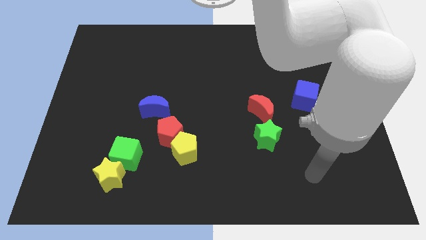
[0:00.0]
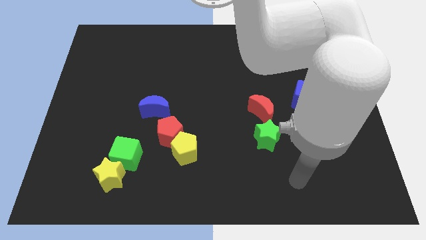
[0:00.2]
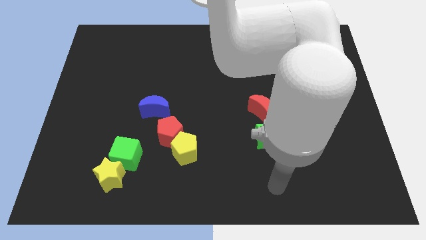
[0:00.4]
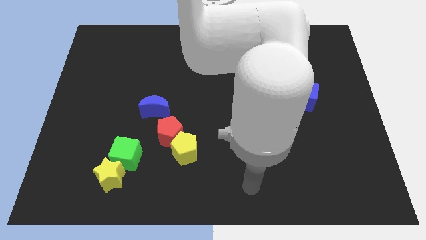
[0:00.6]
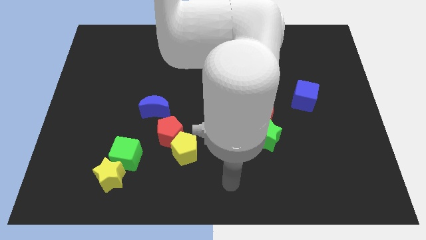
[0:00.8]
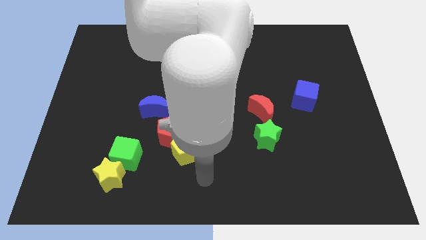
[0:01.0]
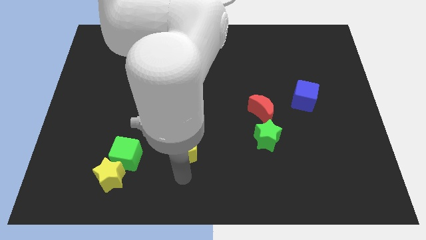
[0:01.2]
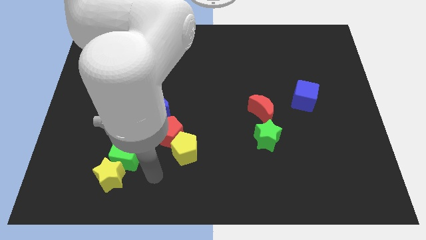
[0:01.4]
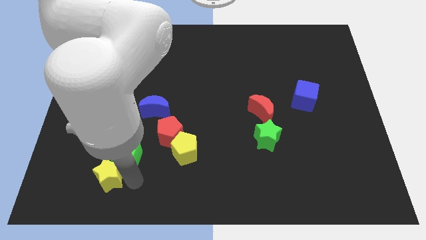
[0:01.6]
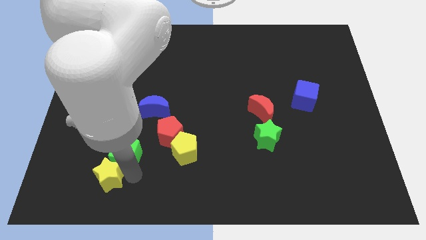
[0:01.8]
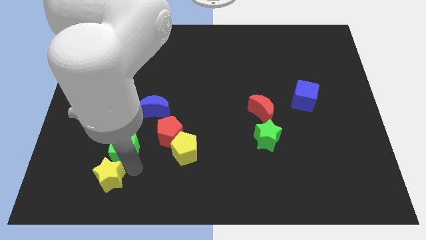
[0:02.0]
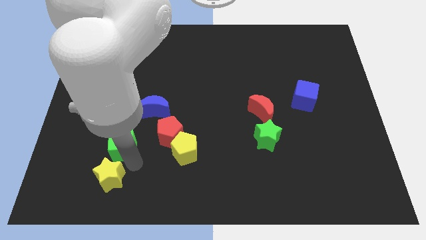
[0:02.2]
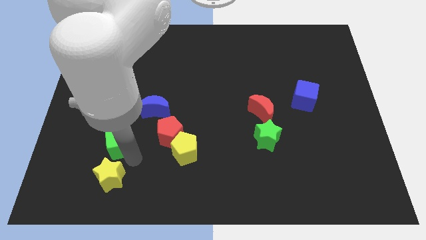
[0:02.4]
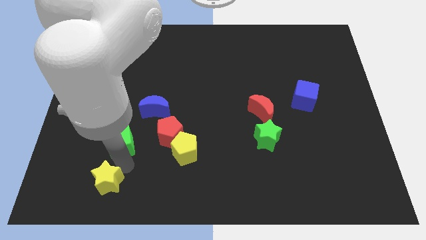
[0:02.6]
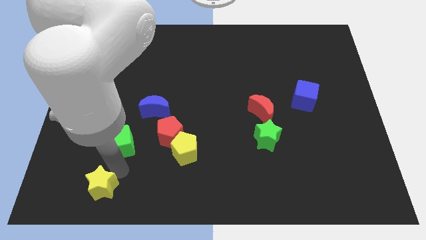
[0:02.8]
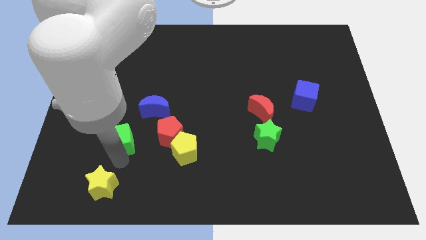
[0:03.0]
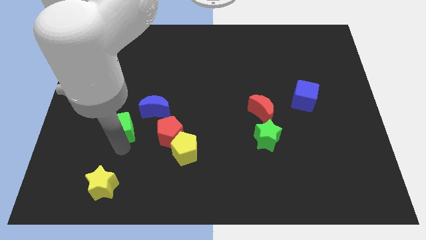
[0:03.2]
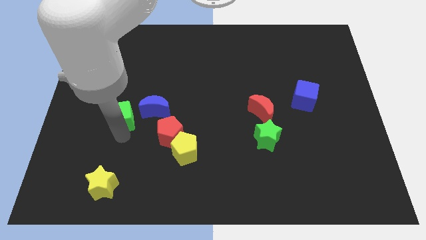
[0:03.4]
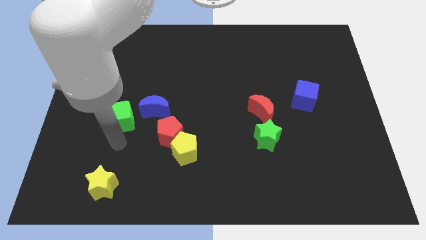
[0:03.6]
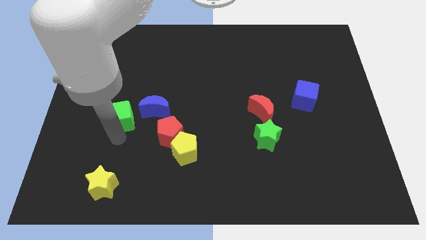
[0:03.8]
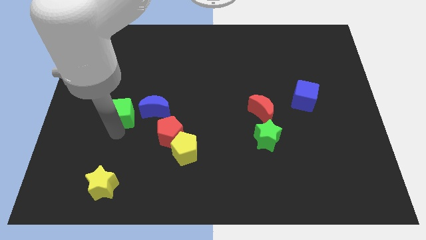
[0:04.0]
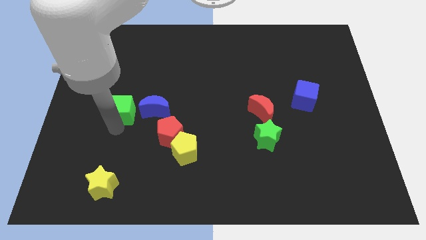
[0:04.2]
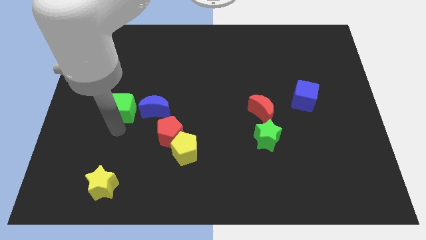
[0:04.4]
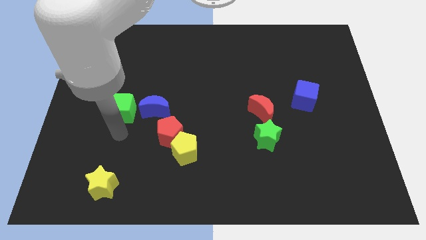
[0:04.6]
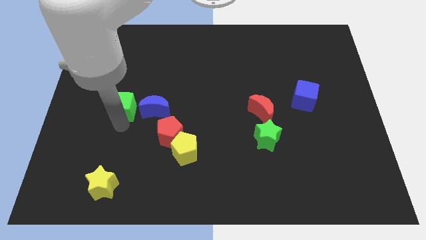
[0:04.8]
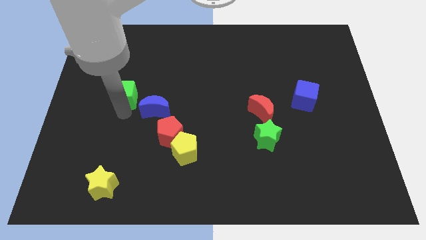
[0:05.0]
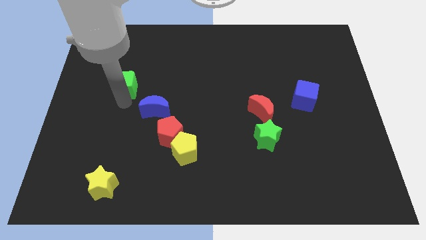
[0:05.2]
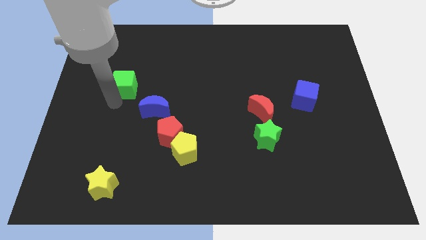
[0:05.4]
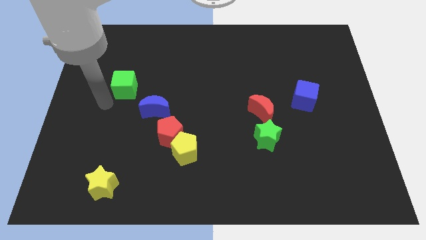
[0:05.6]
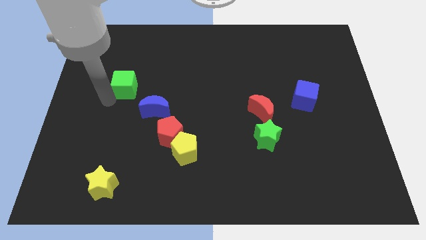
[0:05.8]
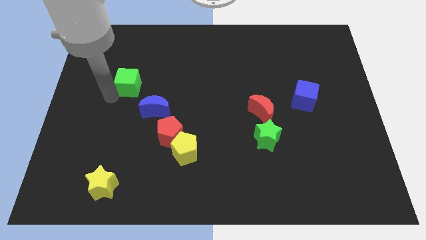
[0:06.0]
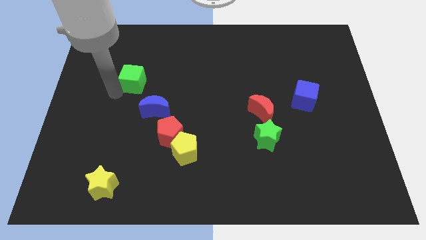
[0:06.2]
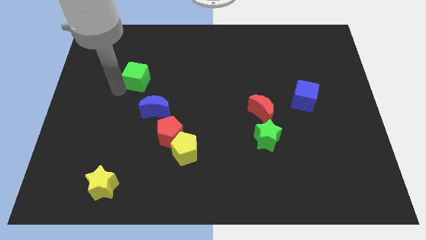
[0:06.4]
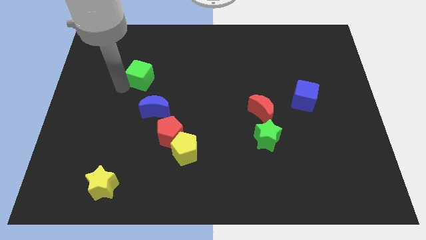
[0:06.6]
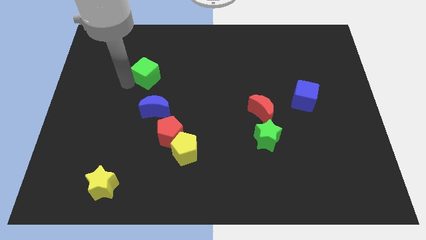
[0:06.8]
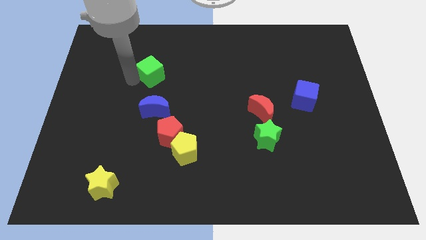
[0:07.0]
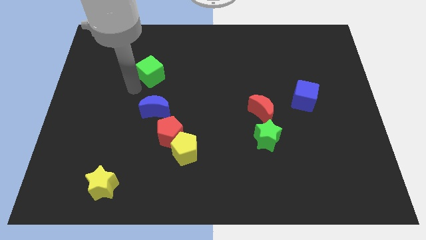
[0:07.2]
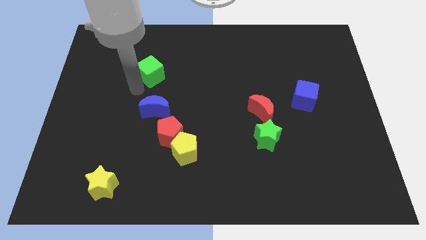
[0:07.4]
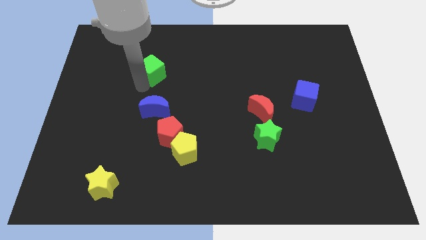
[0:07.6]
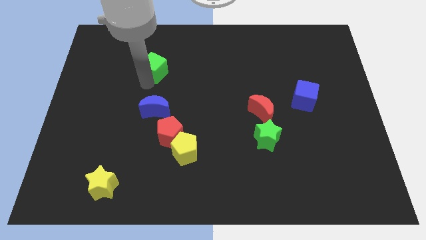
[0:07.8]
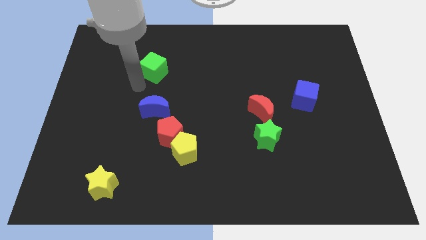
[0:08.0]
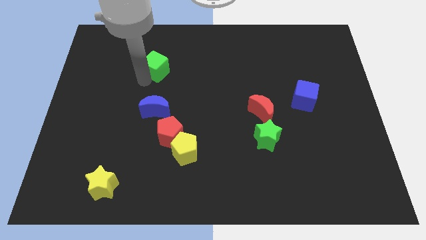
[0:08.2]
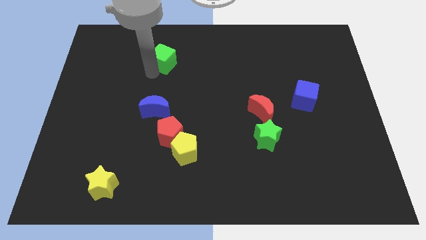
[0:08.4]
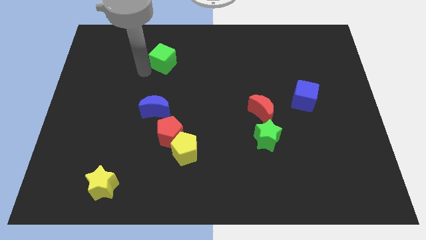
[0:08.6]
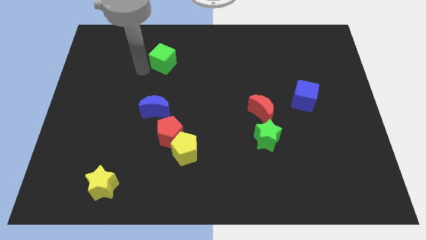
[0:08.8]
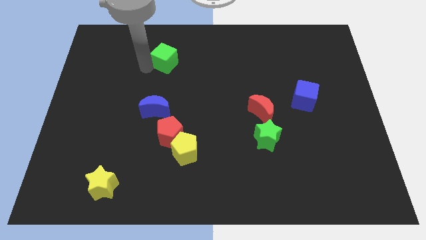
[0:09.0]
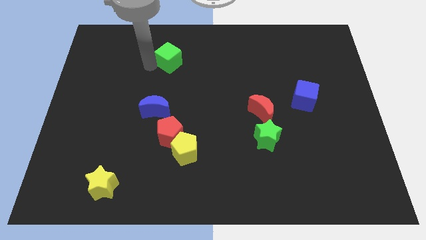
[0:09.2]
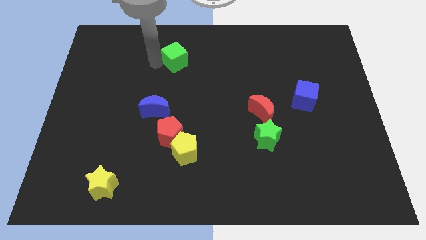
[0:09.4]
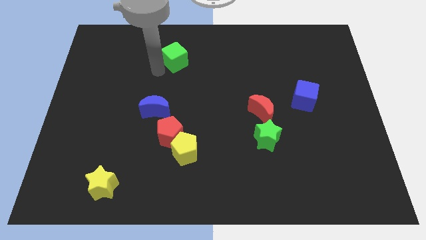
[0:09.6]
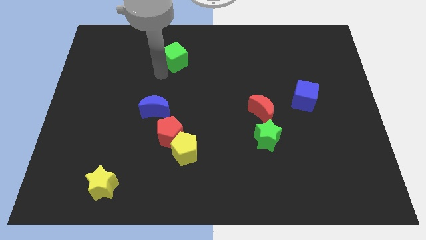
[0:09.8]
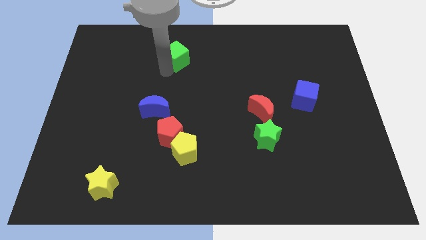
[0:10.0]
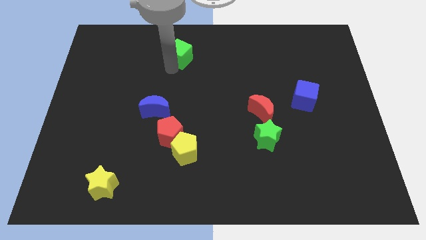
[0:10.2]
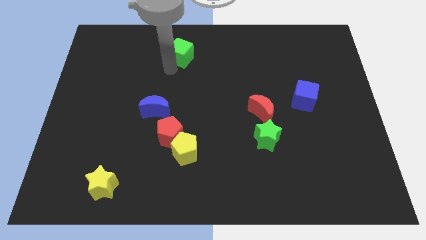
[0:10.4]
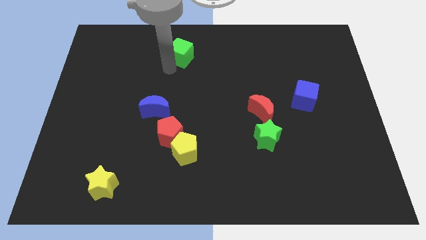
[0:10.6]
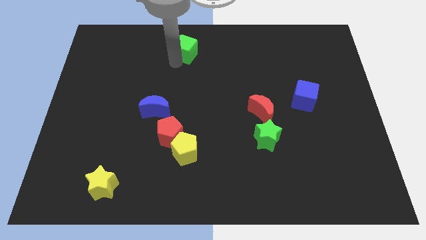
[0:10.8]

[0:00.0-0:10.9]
slide the green cube to the top

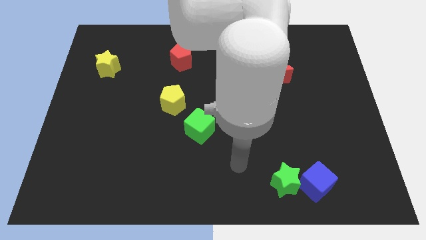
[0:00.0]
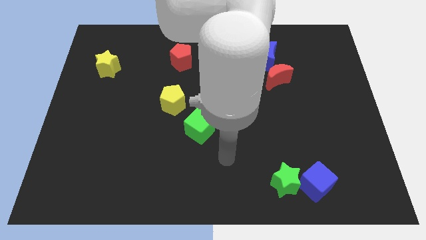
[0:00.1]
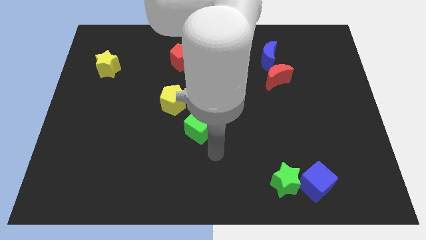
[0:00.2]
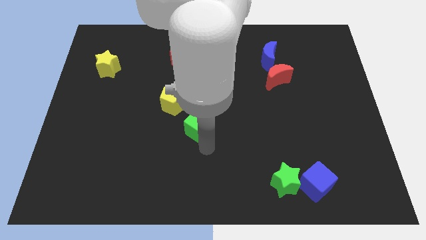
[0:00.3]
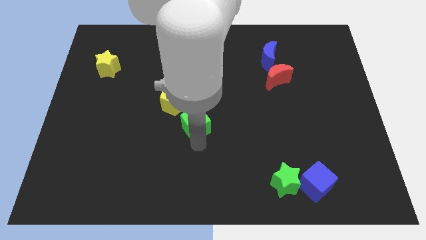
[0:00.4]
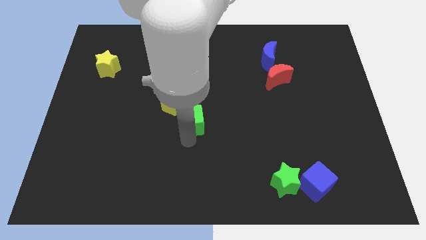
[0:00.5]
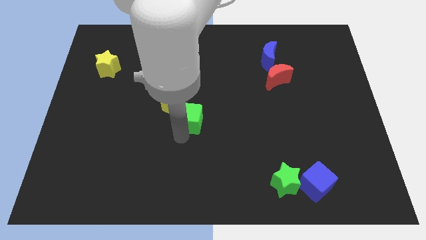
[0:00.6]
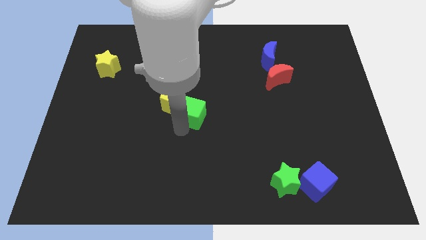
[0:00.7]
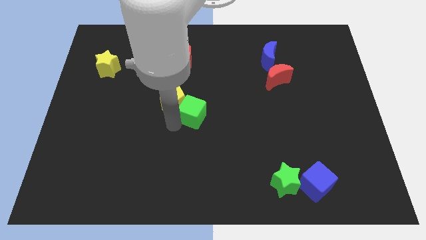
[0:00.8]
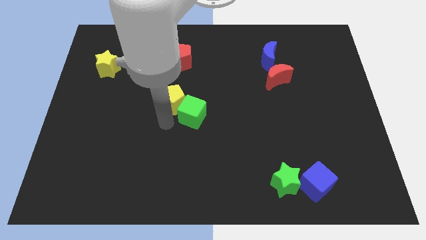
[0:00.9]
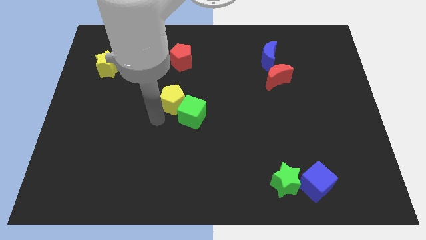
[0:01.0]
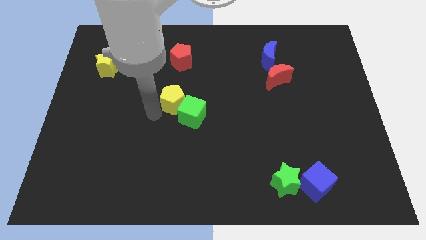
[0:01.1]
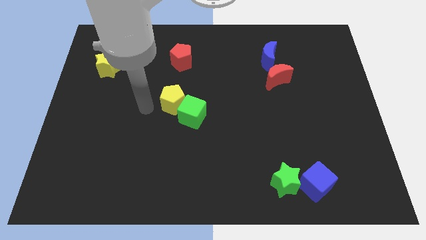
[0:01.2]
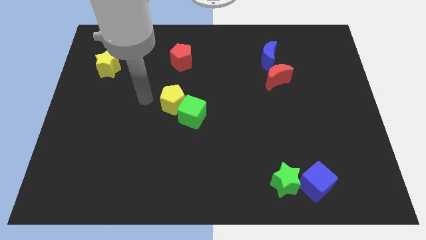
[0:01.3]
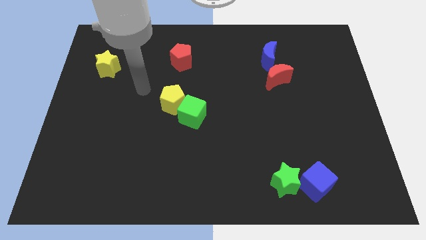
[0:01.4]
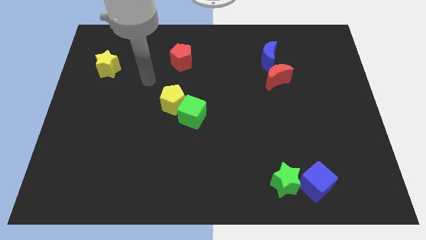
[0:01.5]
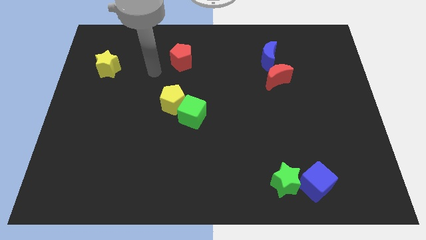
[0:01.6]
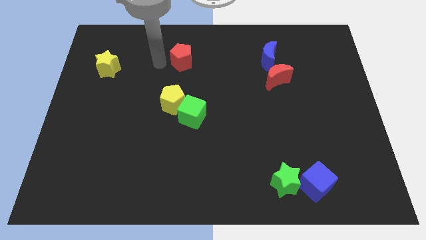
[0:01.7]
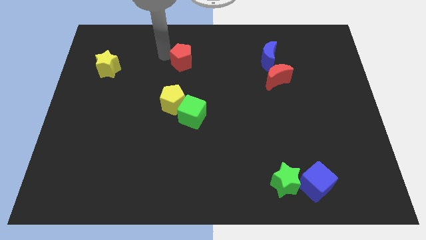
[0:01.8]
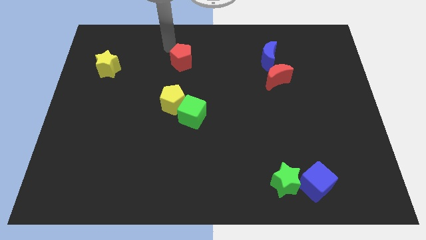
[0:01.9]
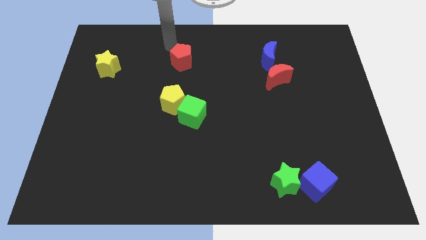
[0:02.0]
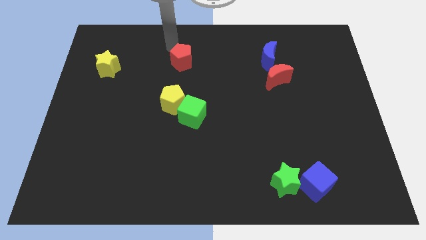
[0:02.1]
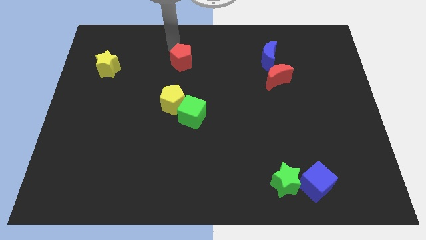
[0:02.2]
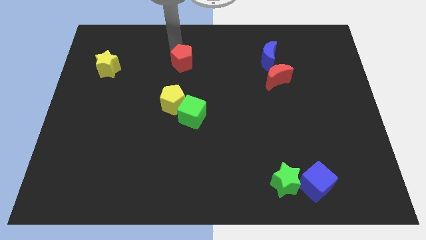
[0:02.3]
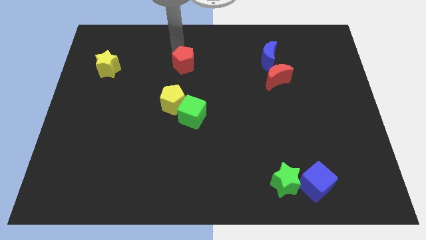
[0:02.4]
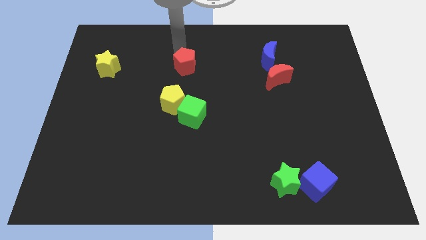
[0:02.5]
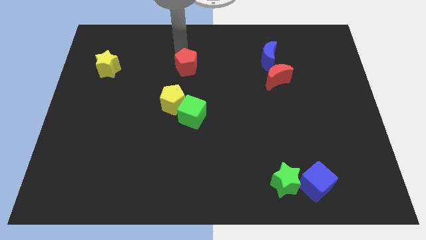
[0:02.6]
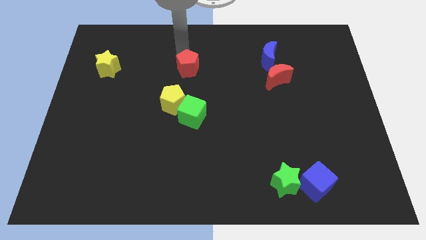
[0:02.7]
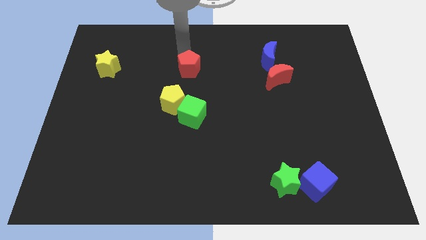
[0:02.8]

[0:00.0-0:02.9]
put the red pentagon to the middle of the board
